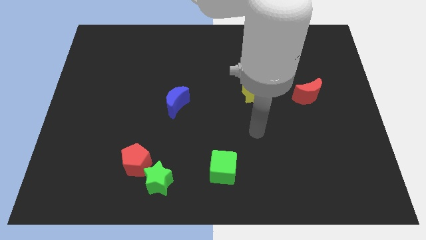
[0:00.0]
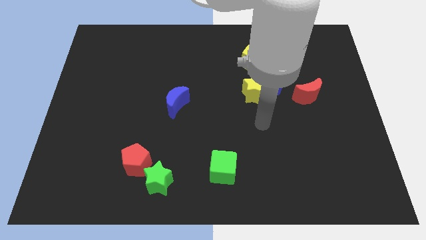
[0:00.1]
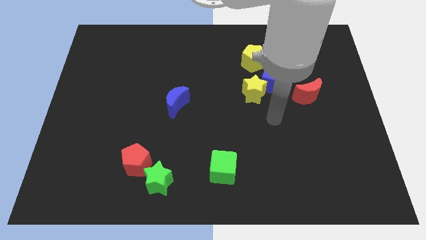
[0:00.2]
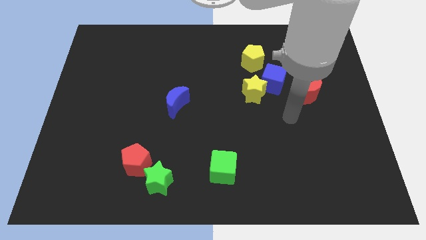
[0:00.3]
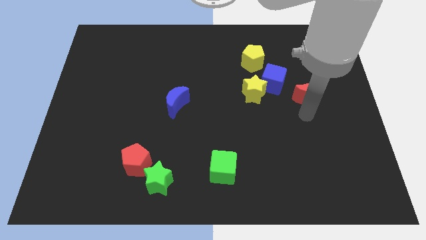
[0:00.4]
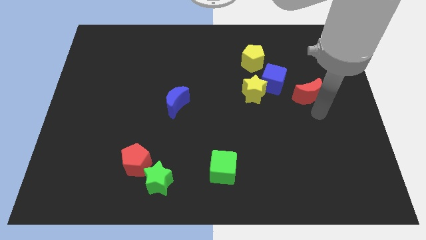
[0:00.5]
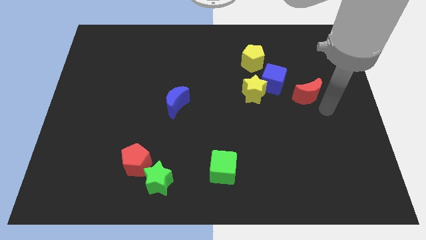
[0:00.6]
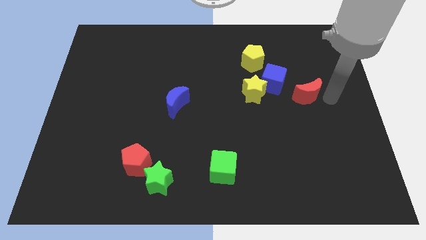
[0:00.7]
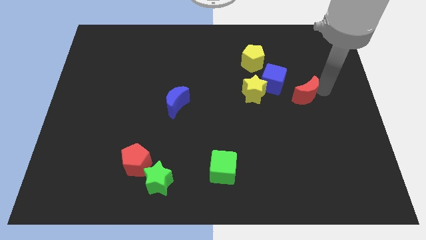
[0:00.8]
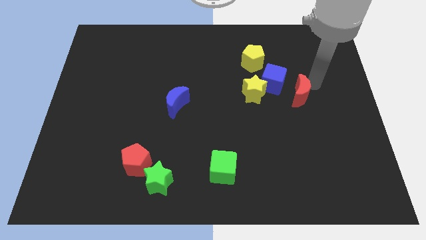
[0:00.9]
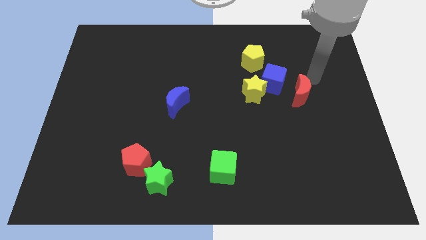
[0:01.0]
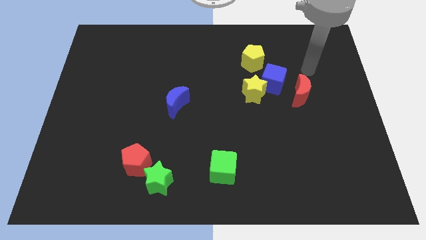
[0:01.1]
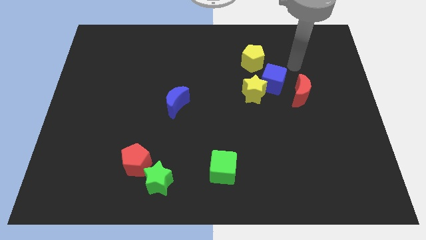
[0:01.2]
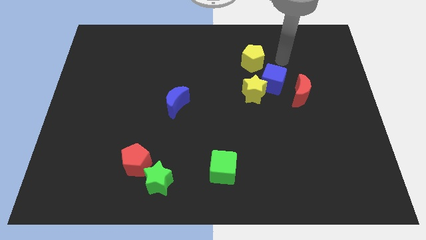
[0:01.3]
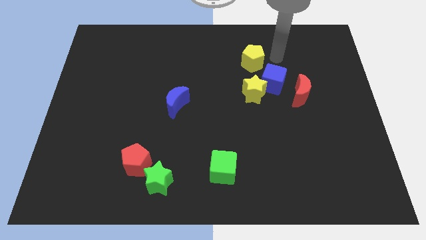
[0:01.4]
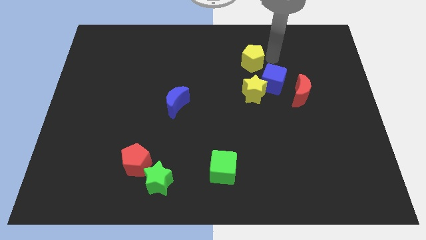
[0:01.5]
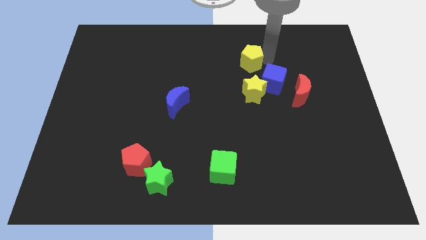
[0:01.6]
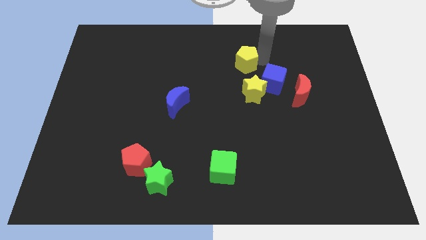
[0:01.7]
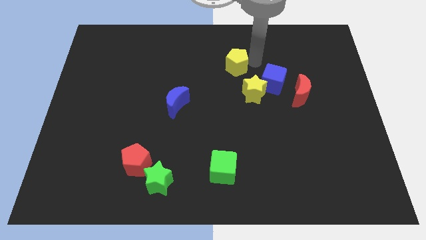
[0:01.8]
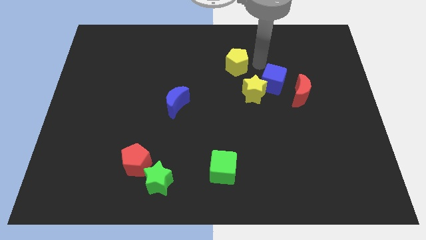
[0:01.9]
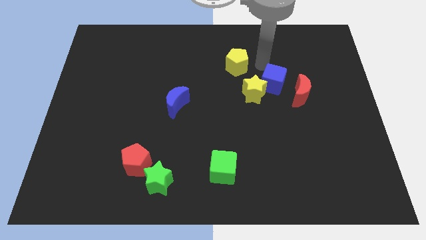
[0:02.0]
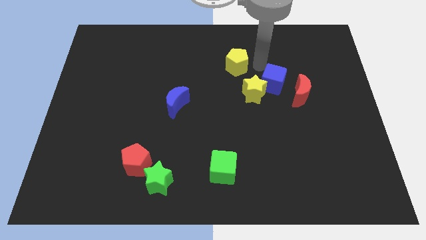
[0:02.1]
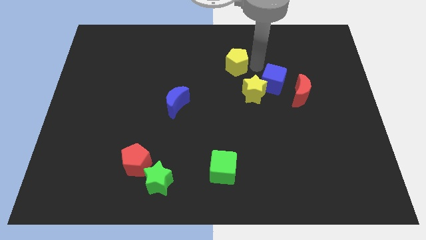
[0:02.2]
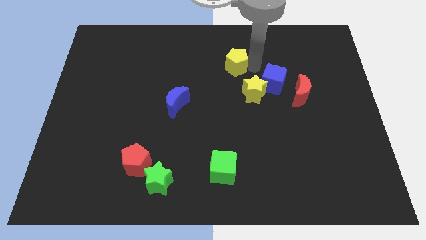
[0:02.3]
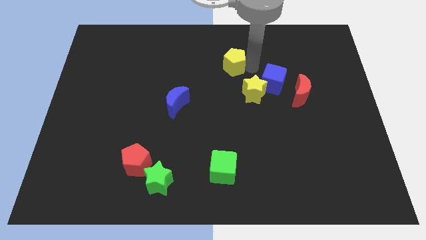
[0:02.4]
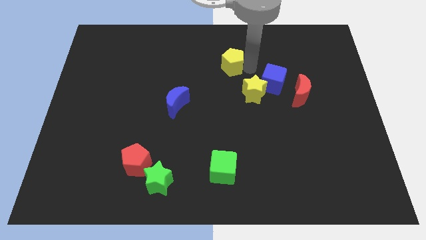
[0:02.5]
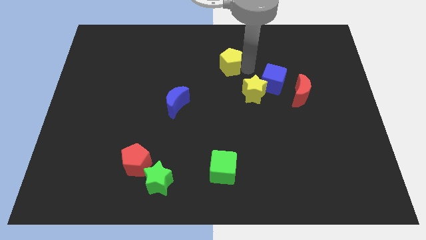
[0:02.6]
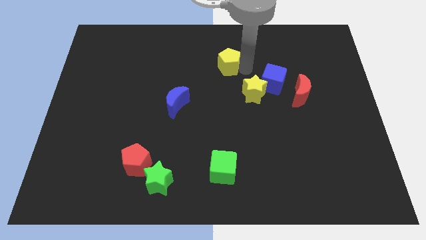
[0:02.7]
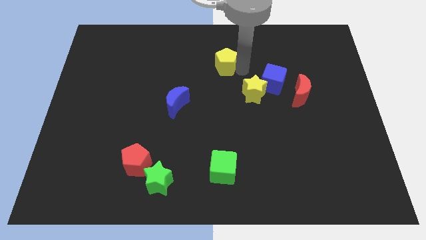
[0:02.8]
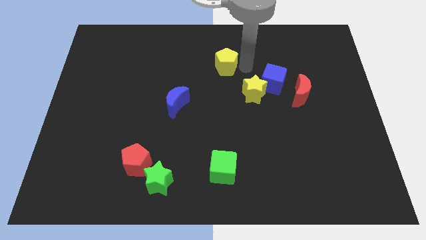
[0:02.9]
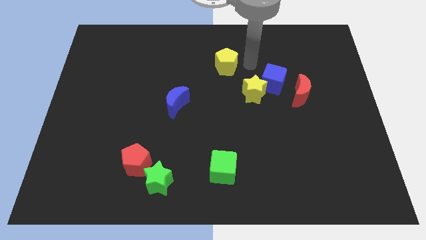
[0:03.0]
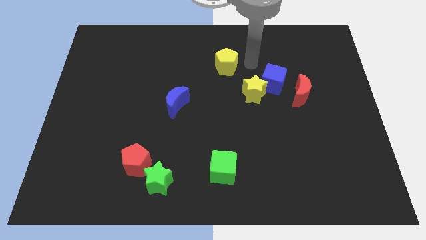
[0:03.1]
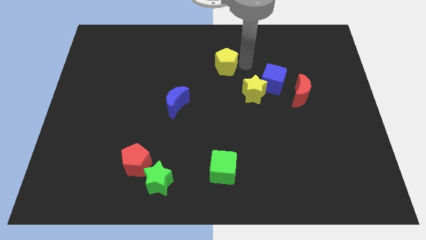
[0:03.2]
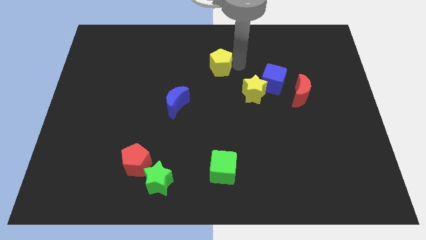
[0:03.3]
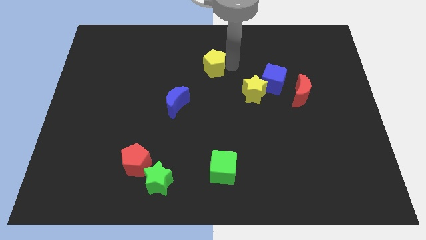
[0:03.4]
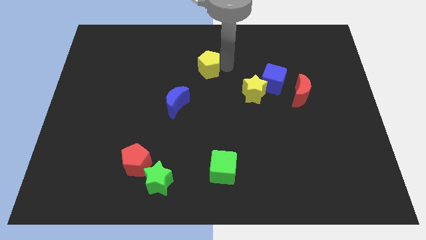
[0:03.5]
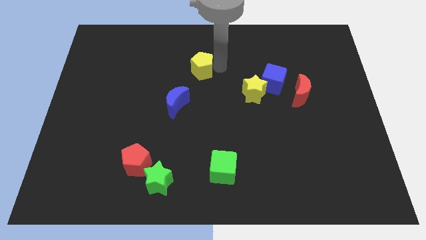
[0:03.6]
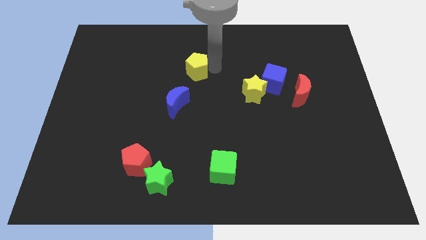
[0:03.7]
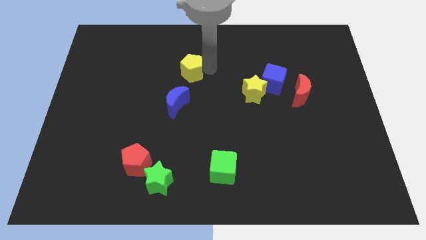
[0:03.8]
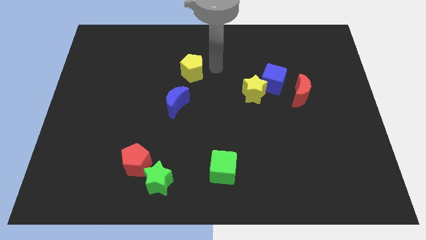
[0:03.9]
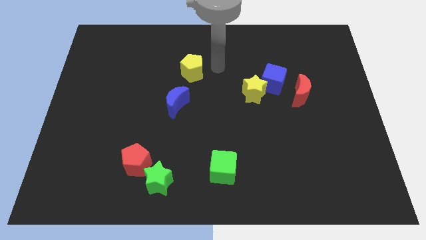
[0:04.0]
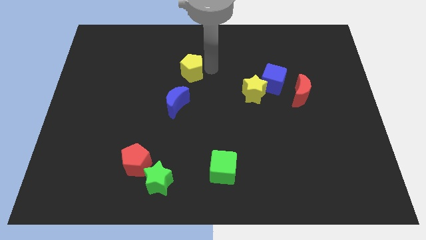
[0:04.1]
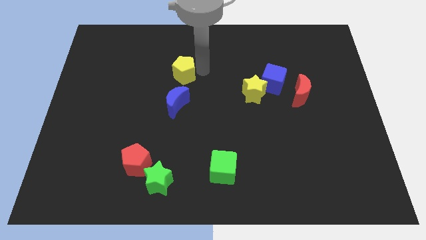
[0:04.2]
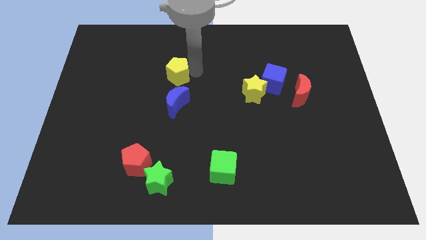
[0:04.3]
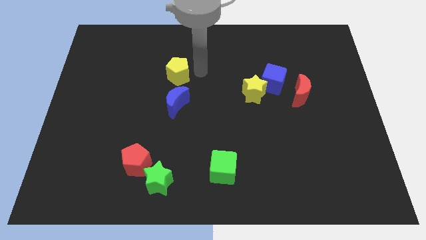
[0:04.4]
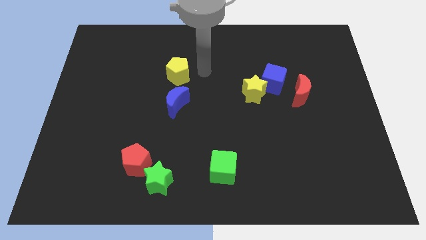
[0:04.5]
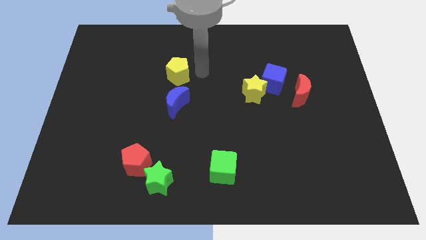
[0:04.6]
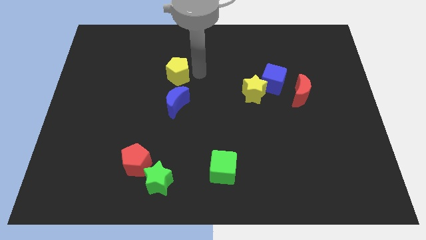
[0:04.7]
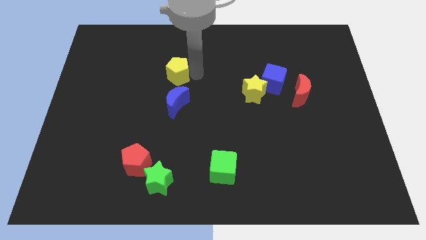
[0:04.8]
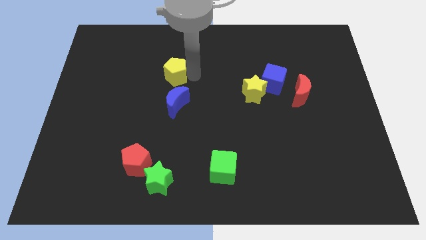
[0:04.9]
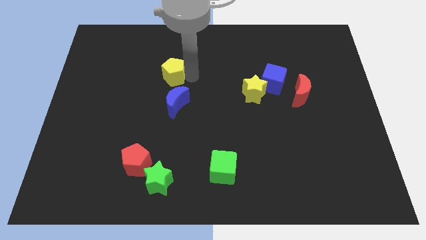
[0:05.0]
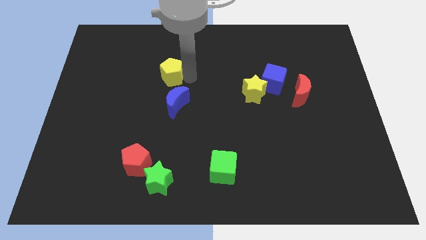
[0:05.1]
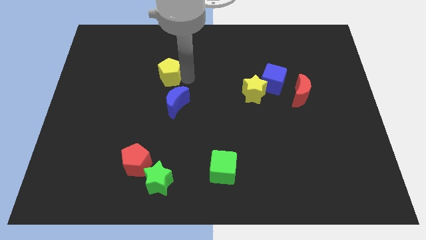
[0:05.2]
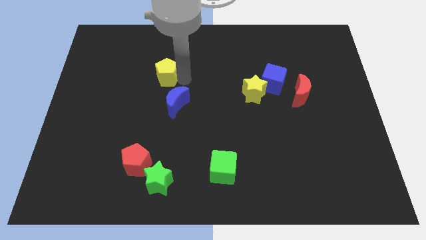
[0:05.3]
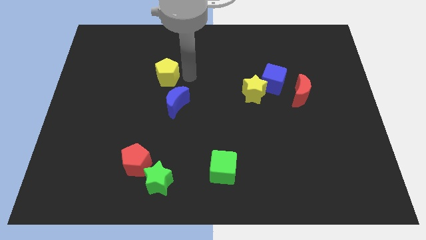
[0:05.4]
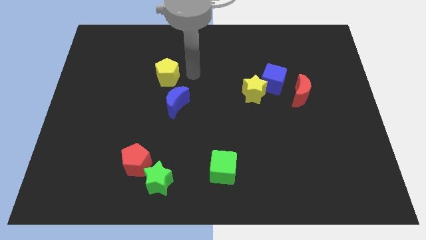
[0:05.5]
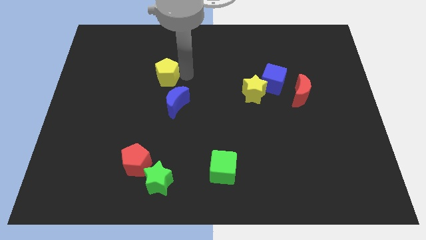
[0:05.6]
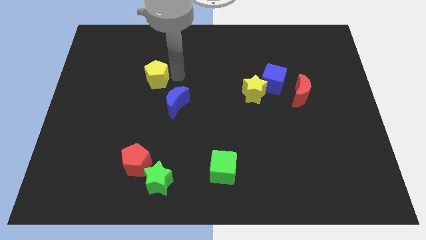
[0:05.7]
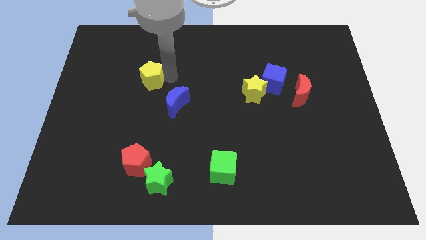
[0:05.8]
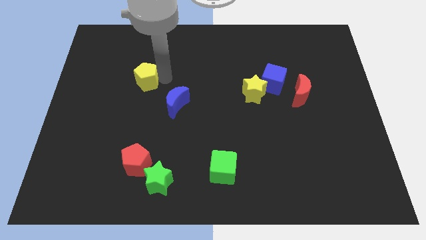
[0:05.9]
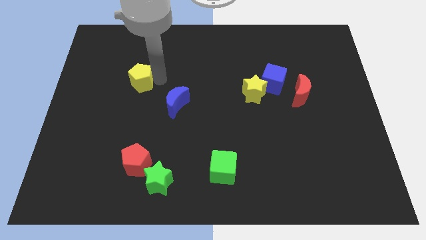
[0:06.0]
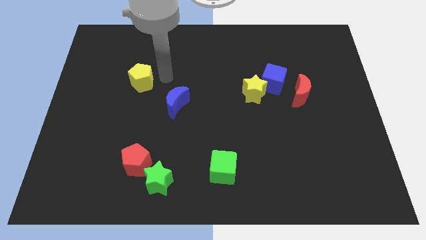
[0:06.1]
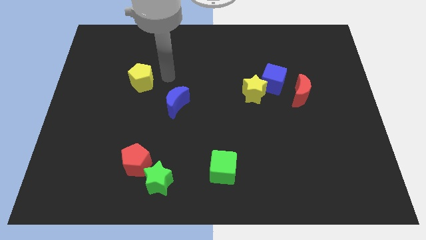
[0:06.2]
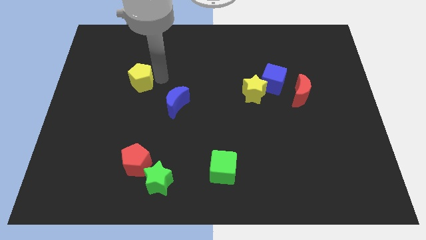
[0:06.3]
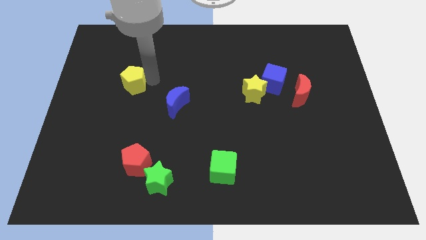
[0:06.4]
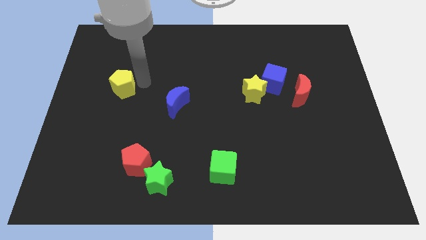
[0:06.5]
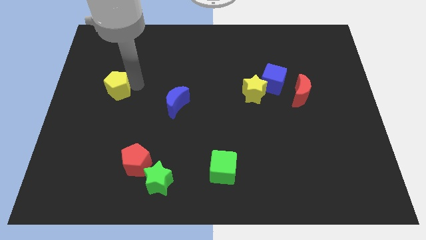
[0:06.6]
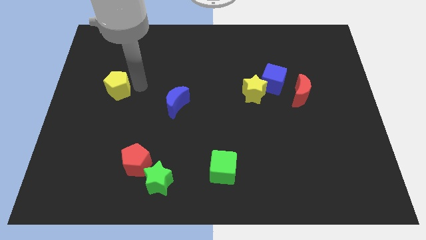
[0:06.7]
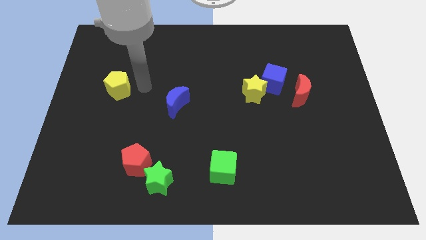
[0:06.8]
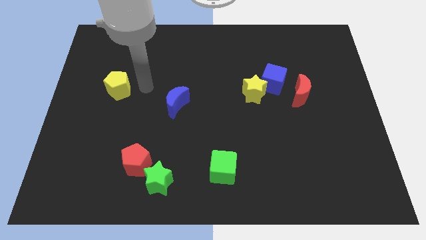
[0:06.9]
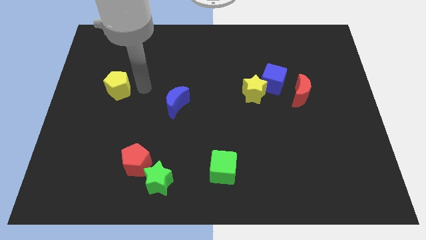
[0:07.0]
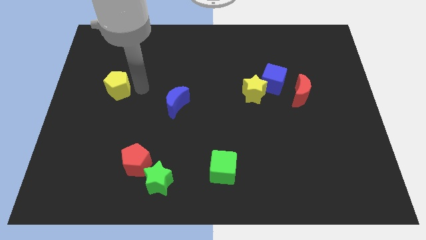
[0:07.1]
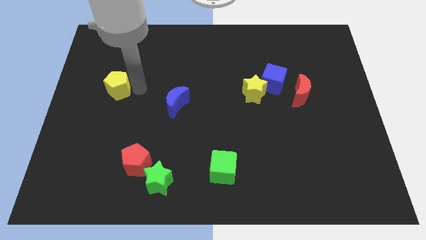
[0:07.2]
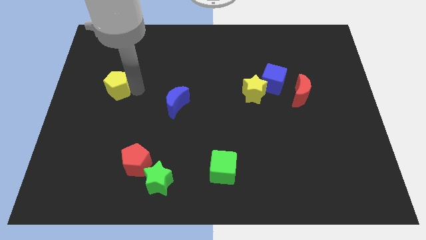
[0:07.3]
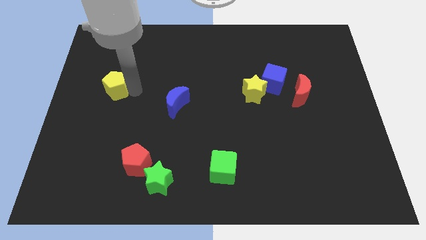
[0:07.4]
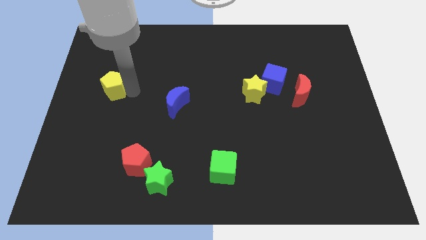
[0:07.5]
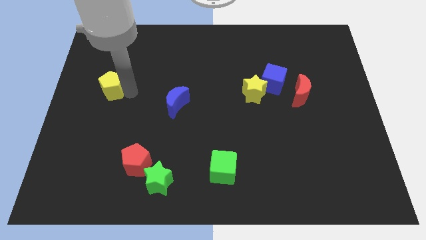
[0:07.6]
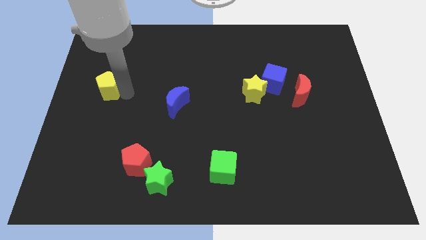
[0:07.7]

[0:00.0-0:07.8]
push the yellow pentagon to the center left
